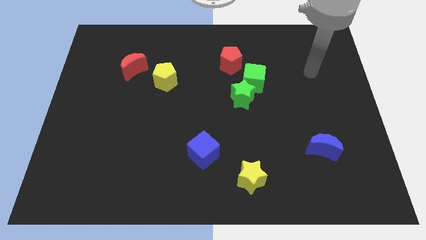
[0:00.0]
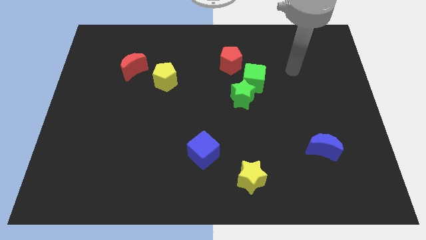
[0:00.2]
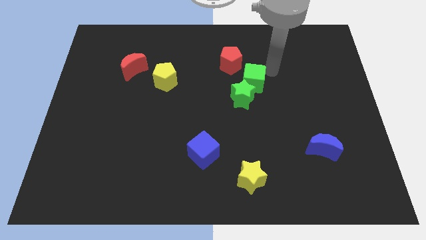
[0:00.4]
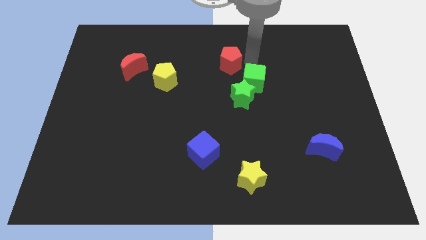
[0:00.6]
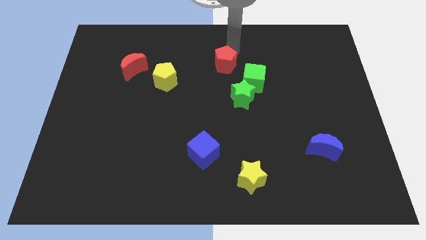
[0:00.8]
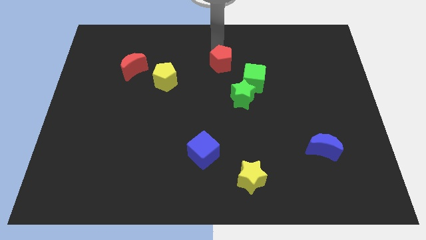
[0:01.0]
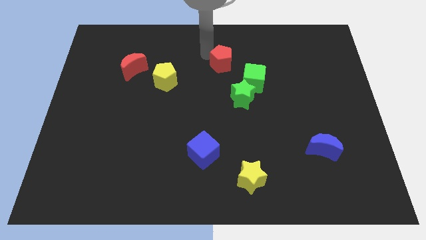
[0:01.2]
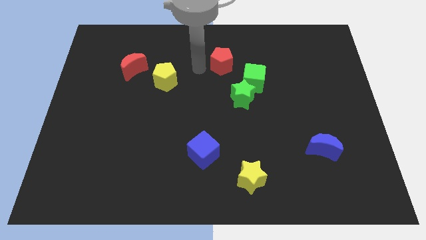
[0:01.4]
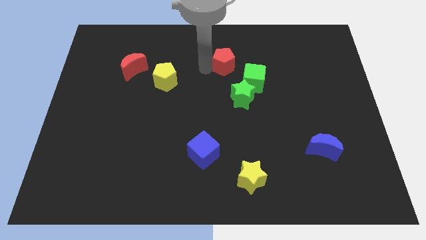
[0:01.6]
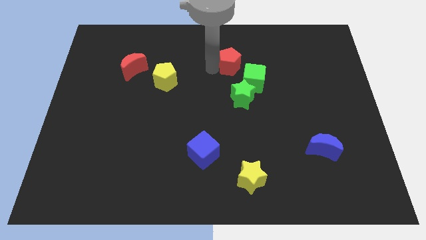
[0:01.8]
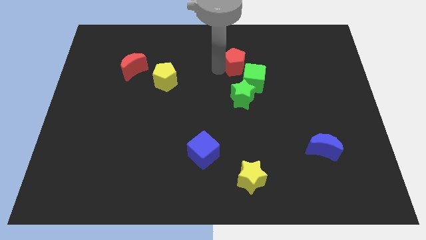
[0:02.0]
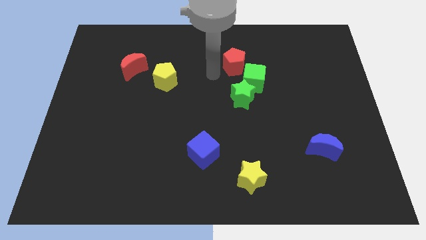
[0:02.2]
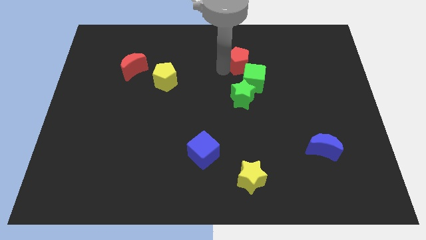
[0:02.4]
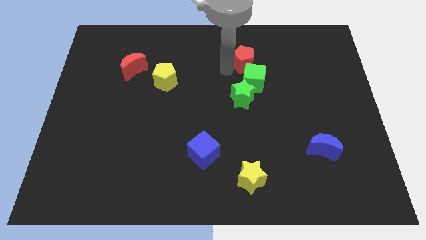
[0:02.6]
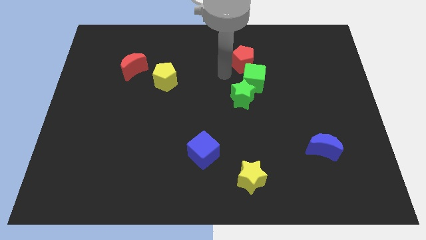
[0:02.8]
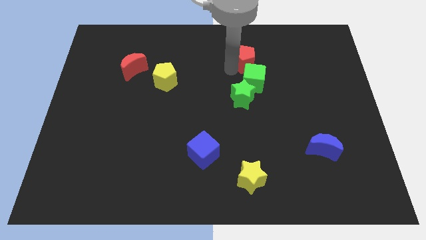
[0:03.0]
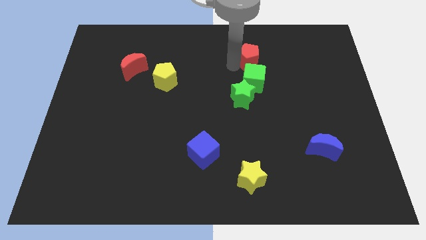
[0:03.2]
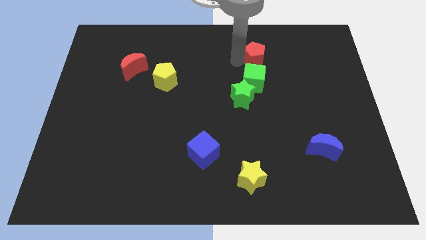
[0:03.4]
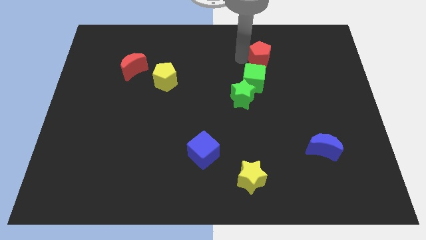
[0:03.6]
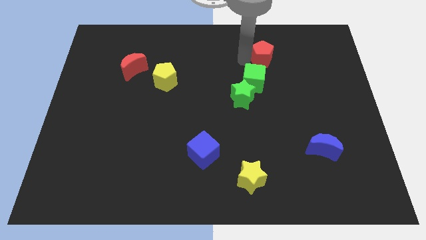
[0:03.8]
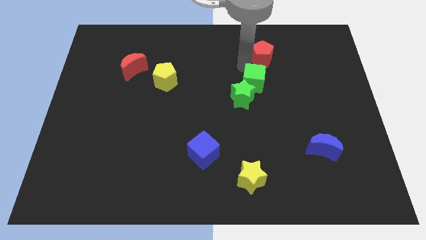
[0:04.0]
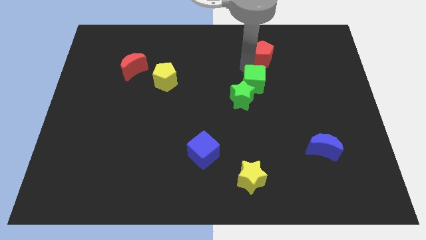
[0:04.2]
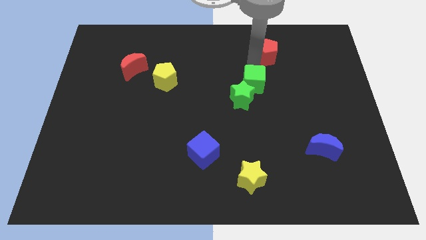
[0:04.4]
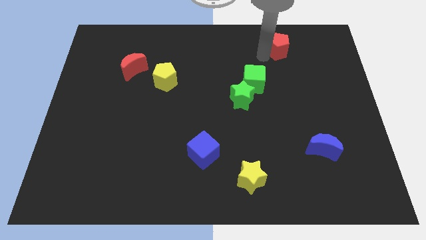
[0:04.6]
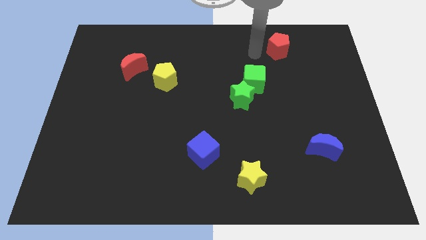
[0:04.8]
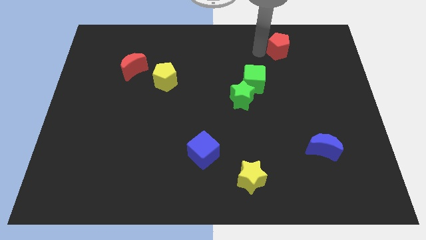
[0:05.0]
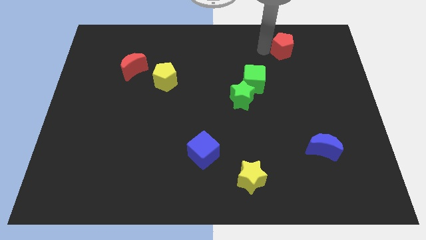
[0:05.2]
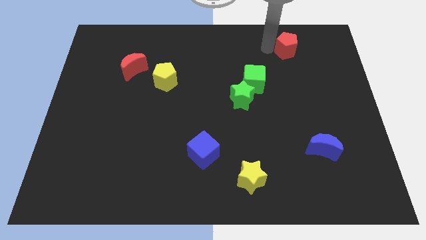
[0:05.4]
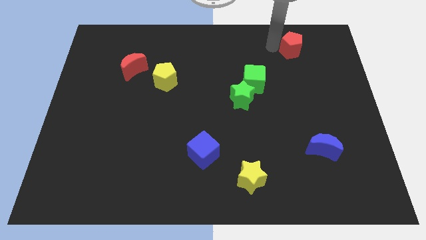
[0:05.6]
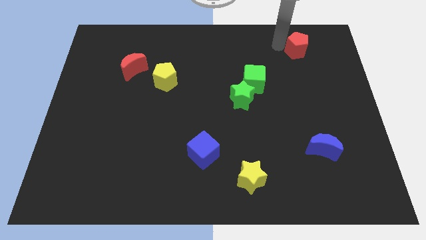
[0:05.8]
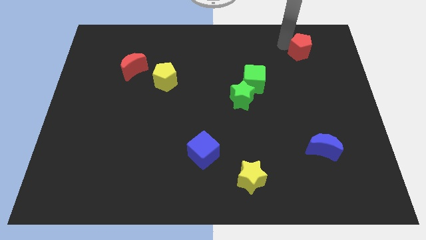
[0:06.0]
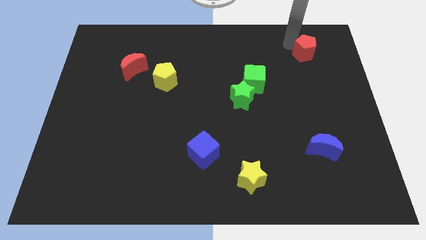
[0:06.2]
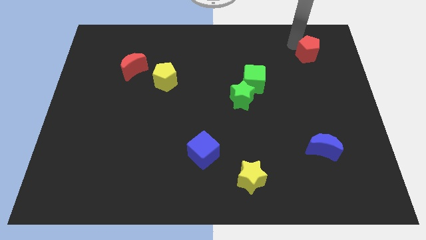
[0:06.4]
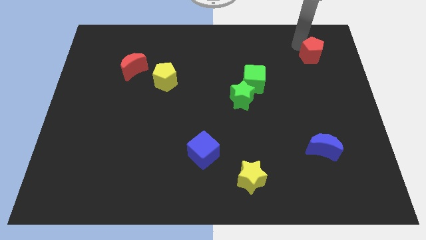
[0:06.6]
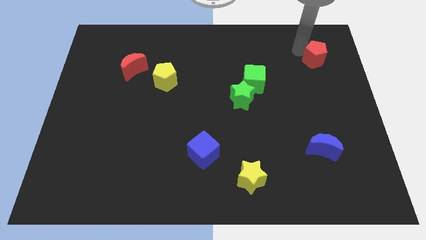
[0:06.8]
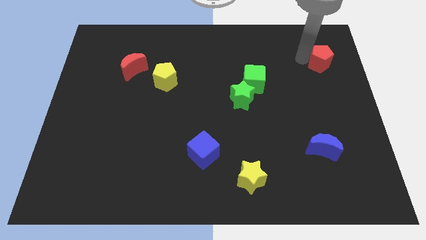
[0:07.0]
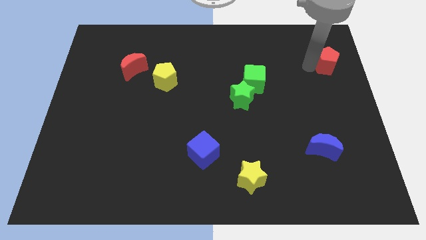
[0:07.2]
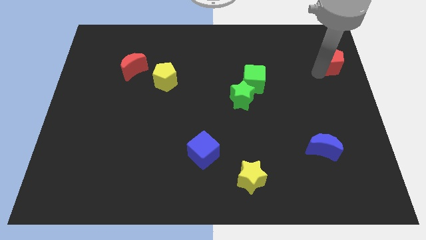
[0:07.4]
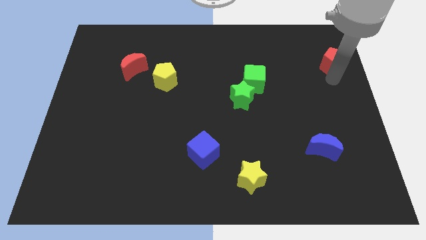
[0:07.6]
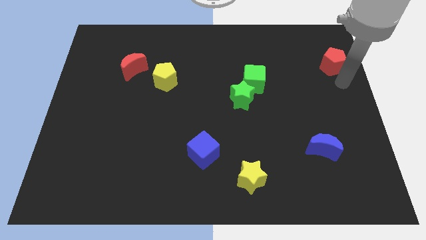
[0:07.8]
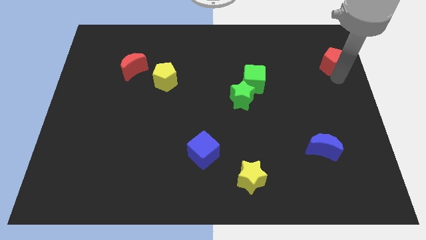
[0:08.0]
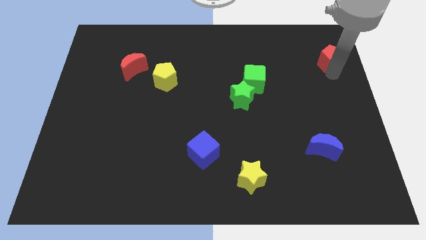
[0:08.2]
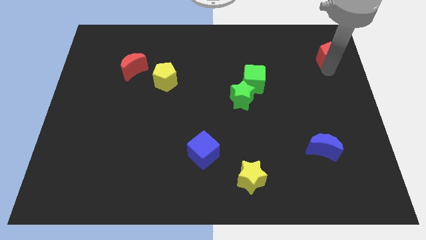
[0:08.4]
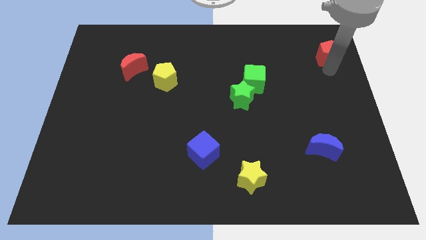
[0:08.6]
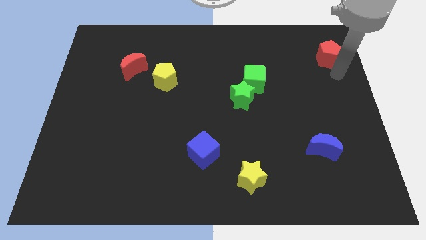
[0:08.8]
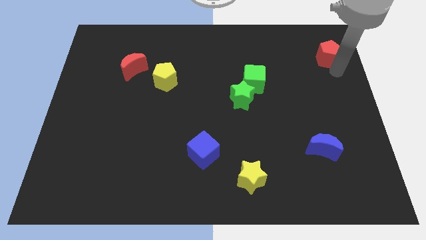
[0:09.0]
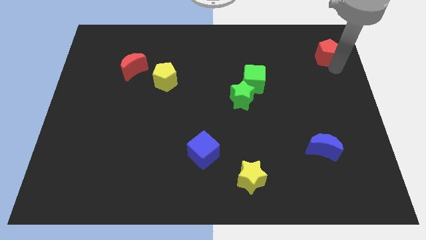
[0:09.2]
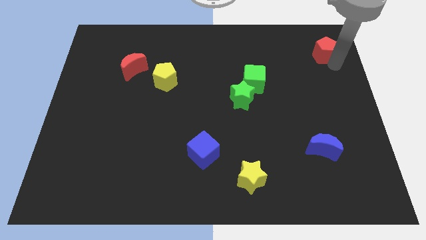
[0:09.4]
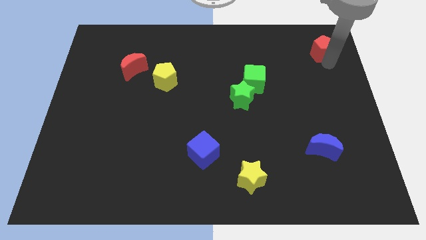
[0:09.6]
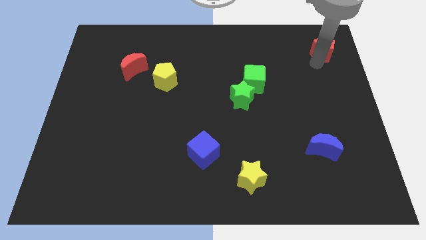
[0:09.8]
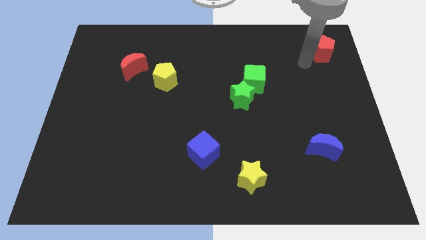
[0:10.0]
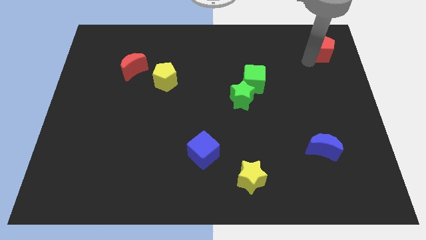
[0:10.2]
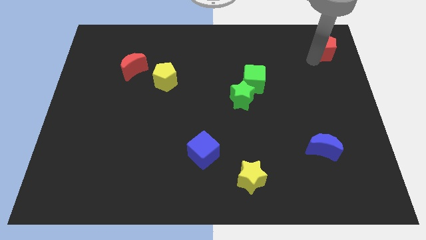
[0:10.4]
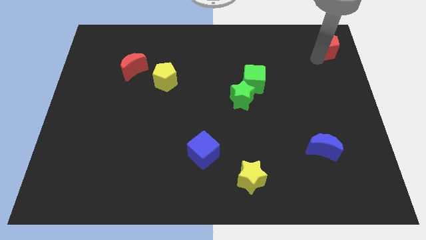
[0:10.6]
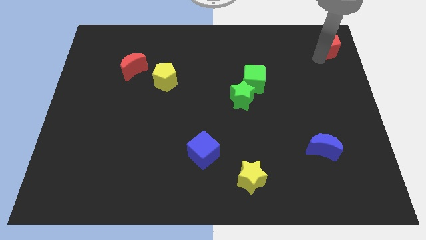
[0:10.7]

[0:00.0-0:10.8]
put the red pentagon to the upper right corner
